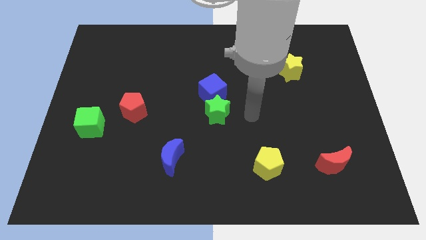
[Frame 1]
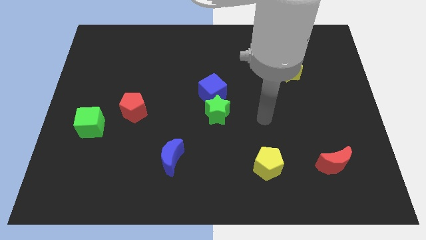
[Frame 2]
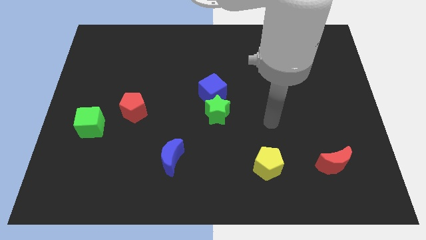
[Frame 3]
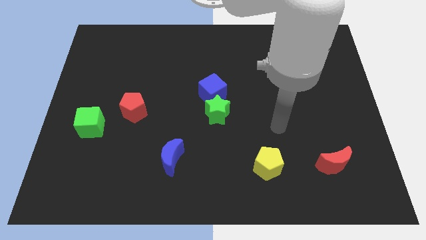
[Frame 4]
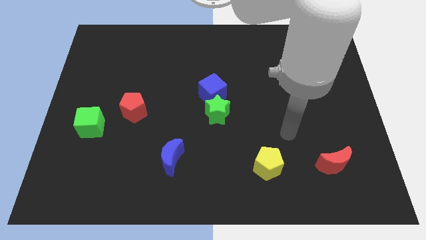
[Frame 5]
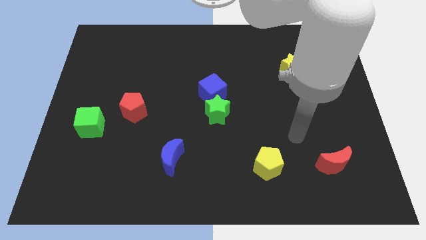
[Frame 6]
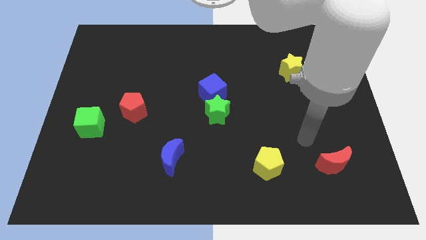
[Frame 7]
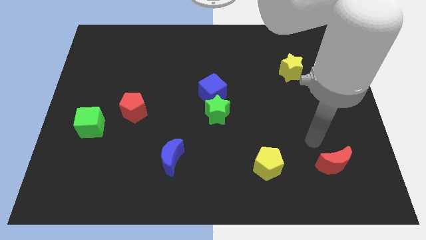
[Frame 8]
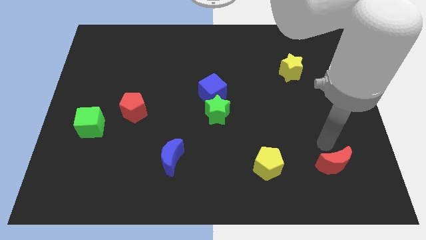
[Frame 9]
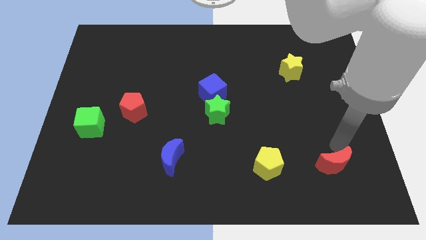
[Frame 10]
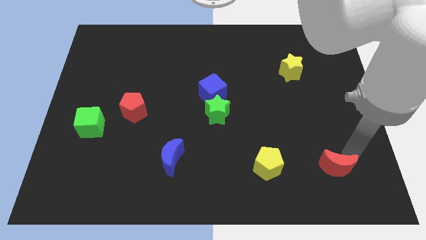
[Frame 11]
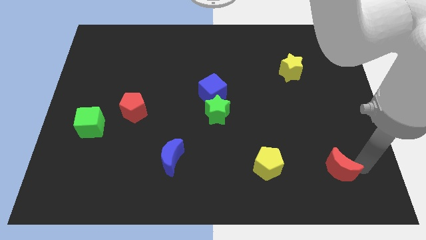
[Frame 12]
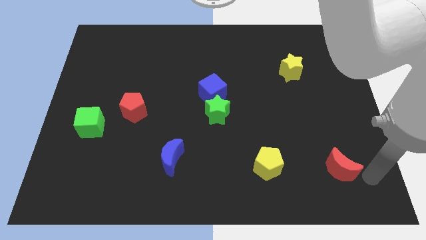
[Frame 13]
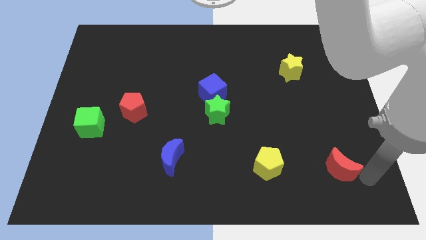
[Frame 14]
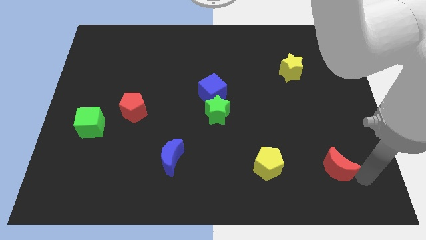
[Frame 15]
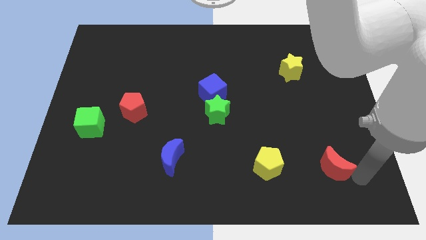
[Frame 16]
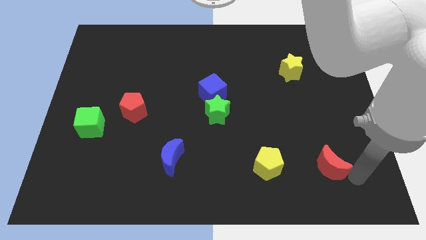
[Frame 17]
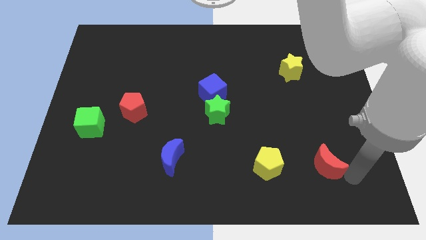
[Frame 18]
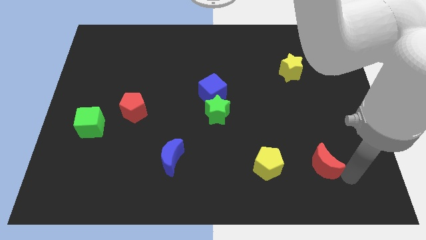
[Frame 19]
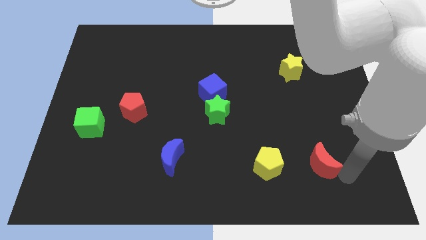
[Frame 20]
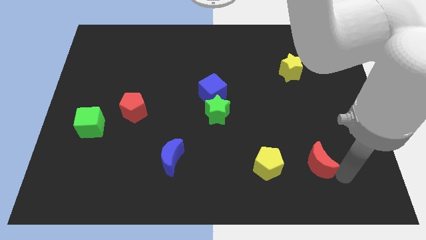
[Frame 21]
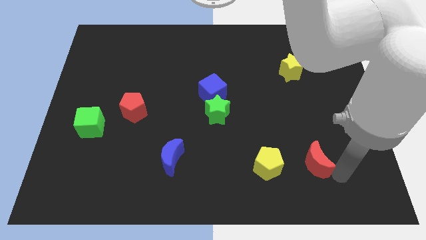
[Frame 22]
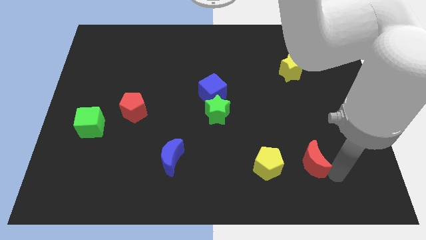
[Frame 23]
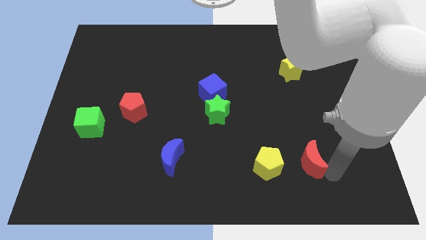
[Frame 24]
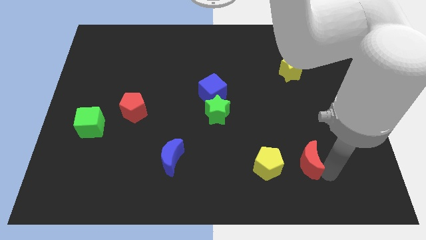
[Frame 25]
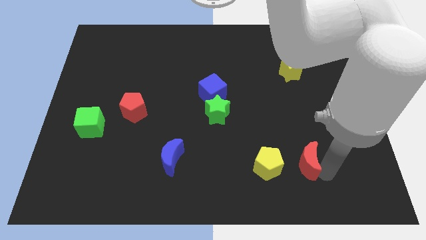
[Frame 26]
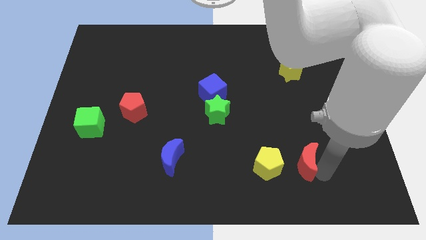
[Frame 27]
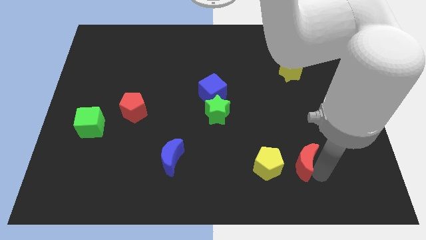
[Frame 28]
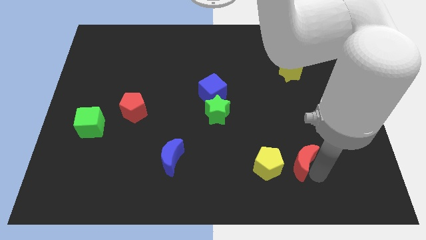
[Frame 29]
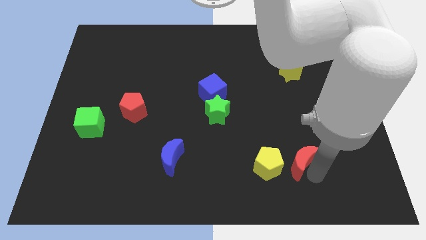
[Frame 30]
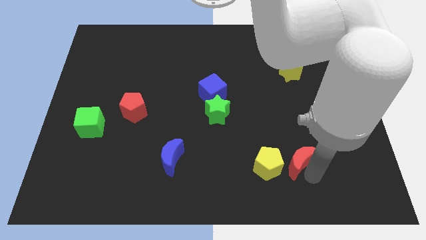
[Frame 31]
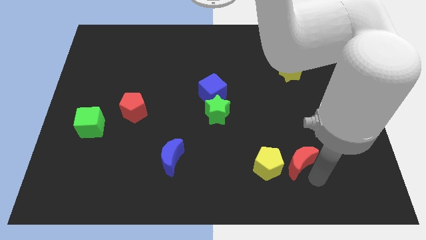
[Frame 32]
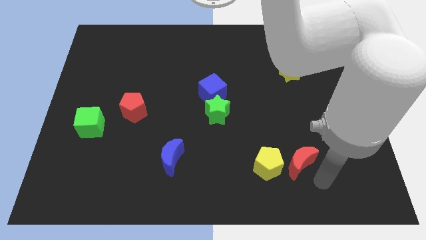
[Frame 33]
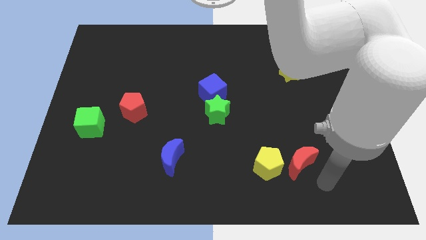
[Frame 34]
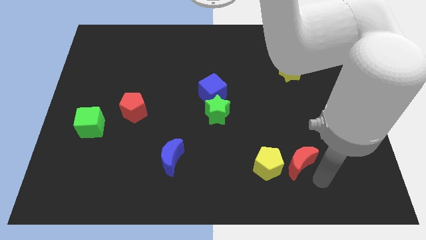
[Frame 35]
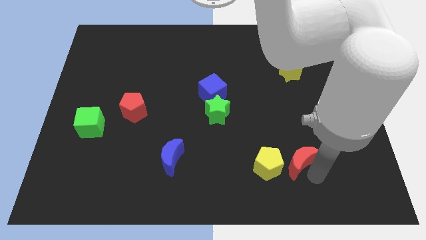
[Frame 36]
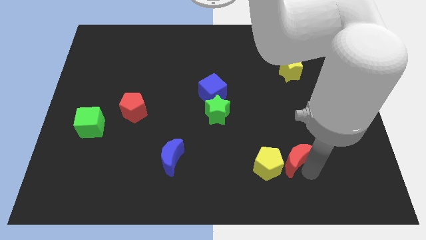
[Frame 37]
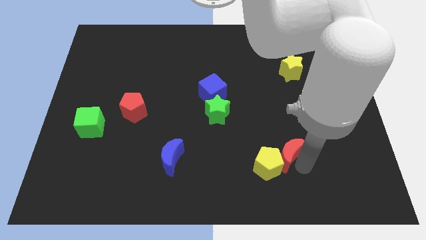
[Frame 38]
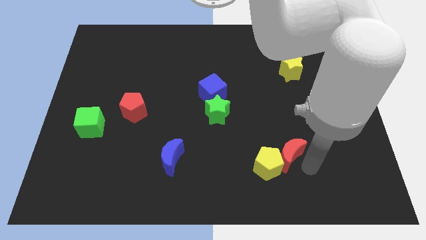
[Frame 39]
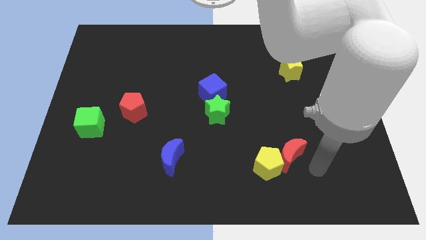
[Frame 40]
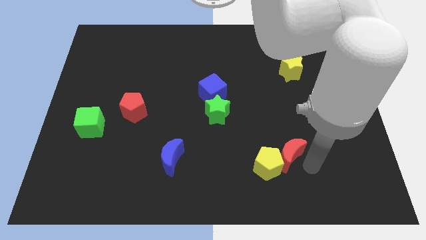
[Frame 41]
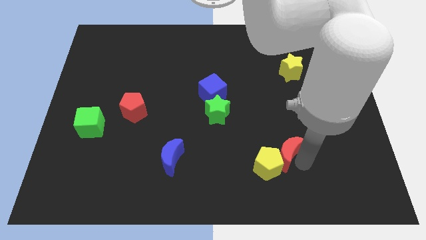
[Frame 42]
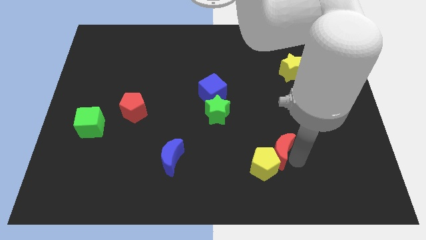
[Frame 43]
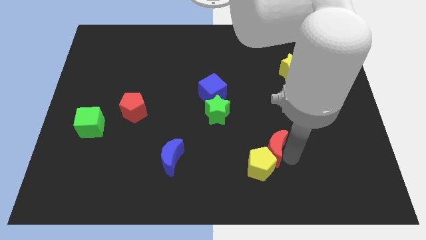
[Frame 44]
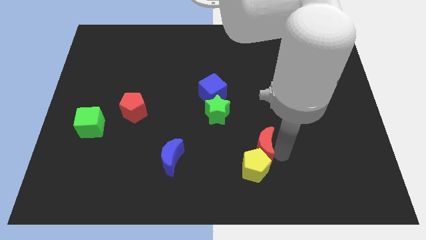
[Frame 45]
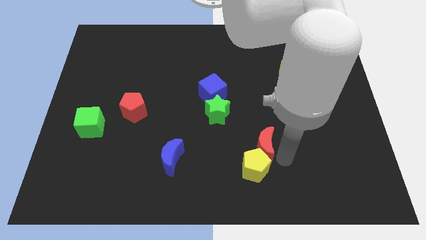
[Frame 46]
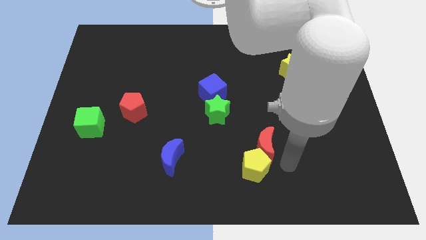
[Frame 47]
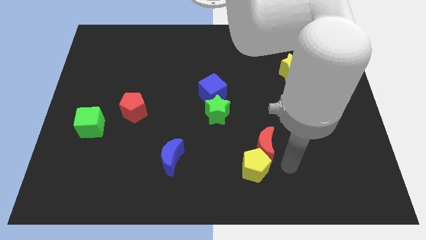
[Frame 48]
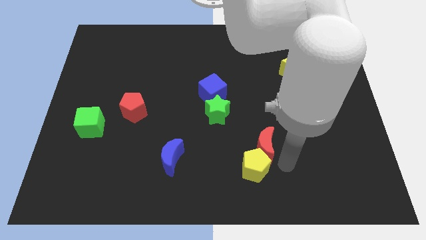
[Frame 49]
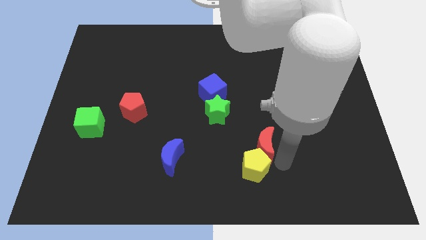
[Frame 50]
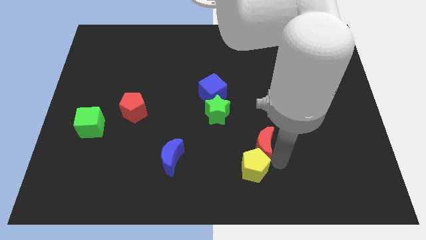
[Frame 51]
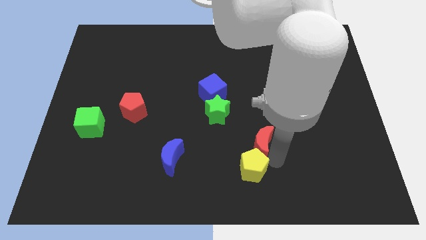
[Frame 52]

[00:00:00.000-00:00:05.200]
put the red moon to the bottom right of the green star

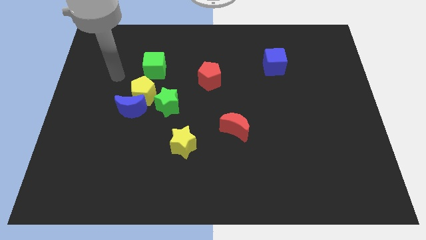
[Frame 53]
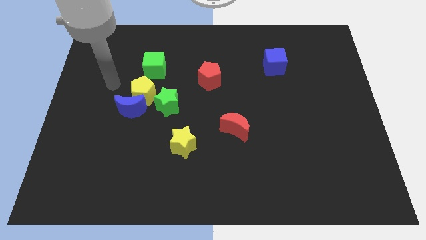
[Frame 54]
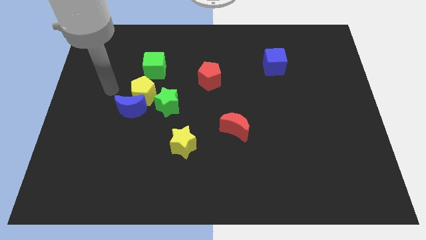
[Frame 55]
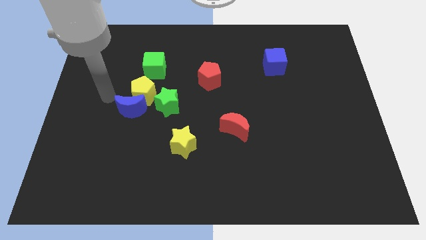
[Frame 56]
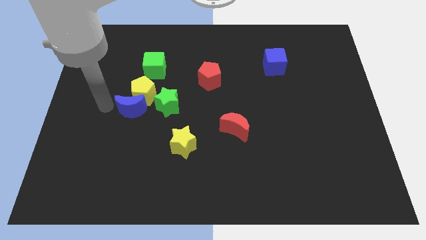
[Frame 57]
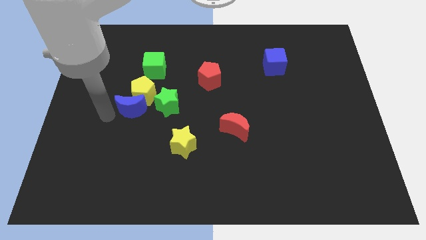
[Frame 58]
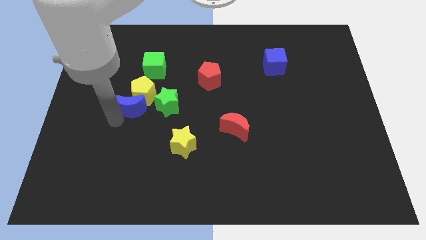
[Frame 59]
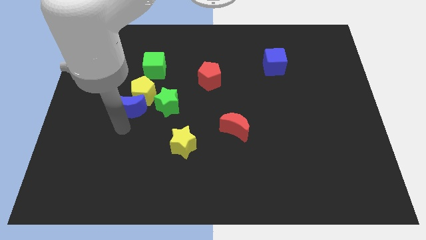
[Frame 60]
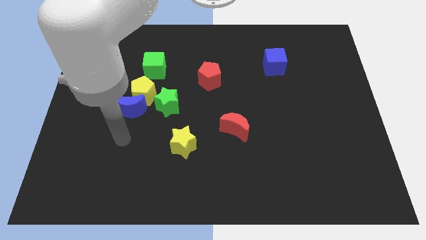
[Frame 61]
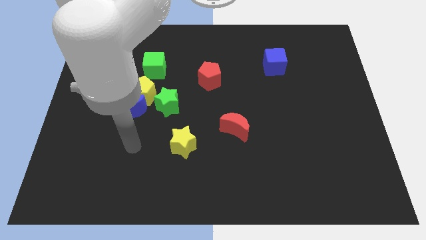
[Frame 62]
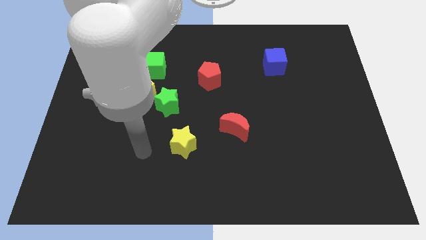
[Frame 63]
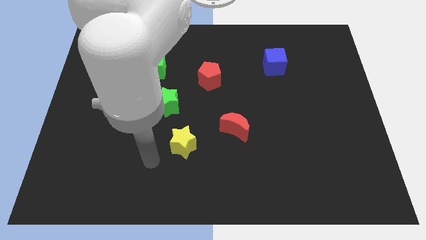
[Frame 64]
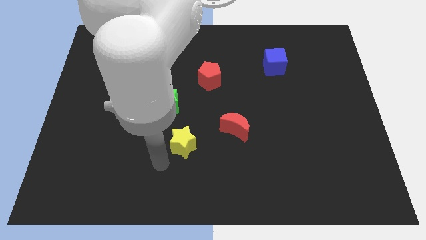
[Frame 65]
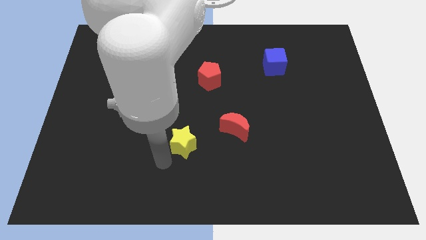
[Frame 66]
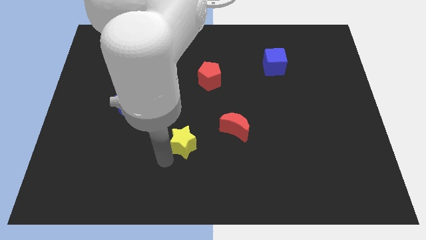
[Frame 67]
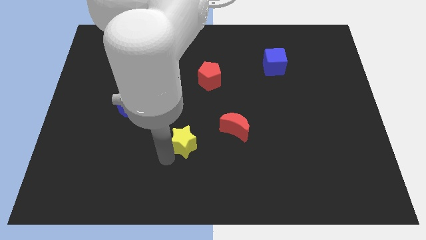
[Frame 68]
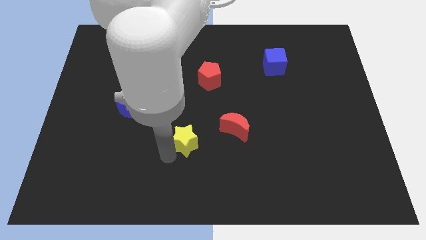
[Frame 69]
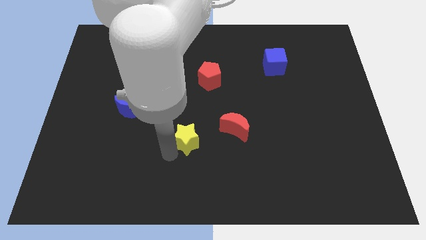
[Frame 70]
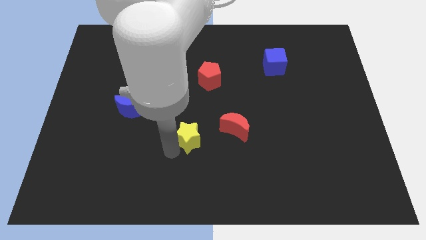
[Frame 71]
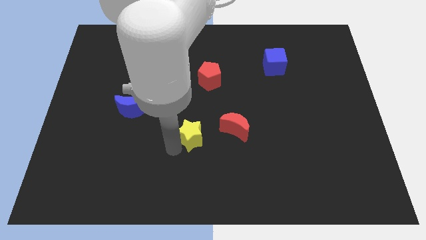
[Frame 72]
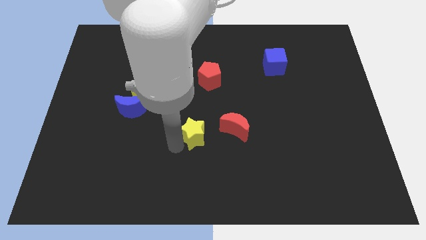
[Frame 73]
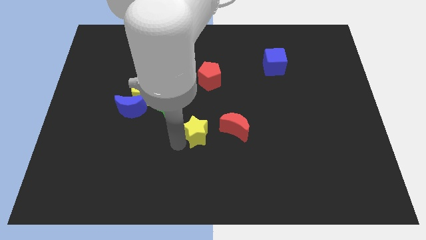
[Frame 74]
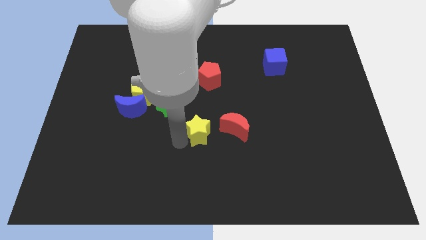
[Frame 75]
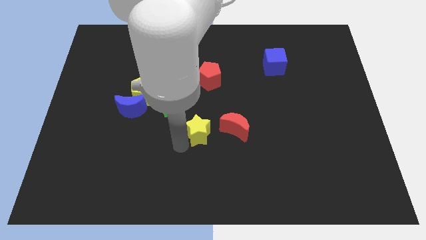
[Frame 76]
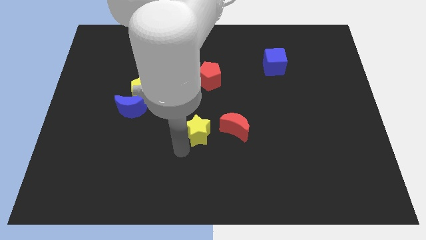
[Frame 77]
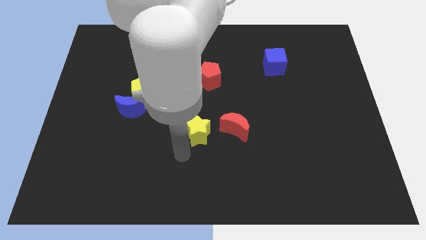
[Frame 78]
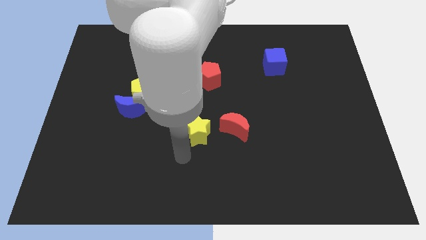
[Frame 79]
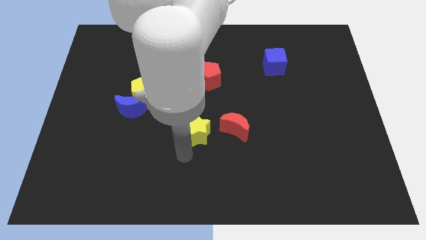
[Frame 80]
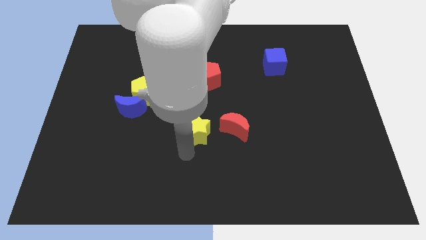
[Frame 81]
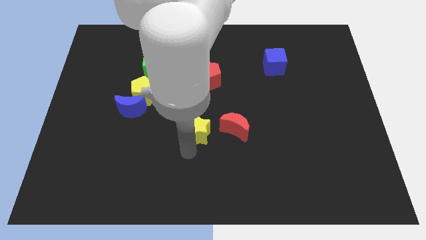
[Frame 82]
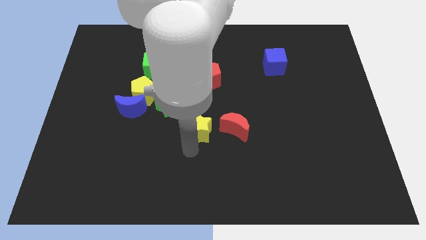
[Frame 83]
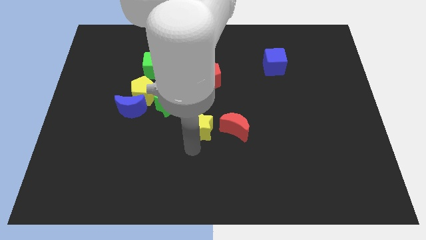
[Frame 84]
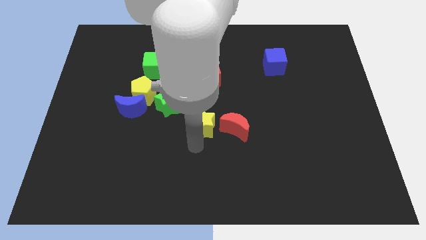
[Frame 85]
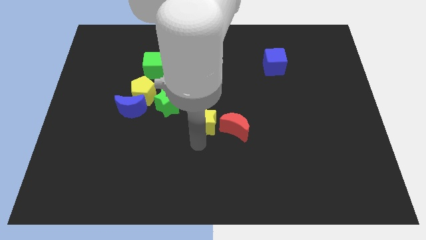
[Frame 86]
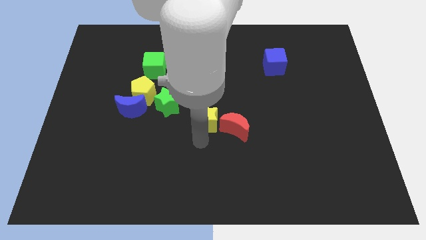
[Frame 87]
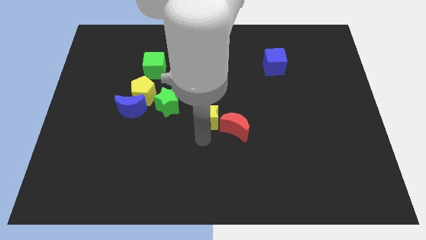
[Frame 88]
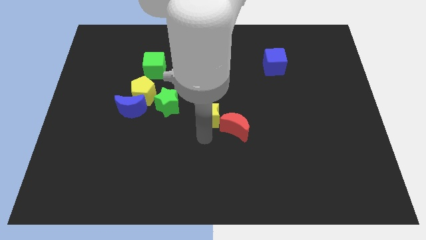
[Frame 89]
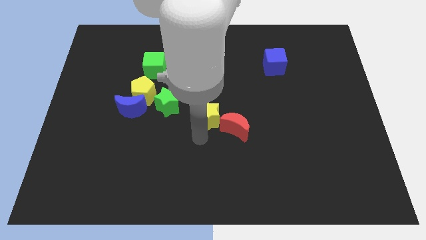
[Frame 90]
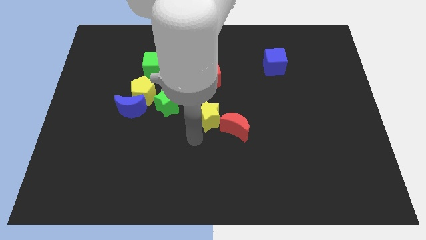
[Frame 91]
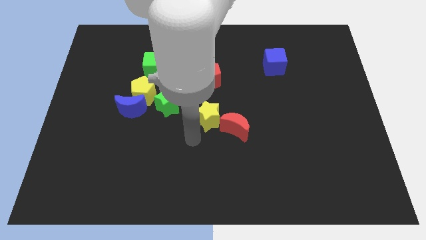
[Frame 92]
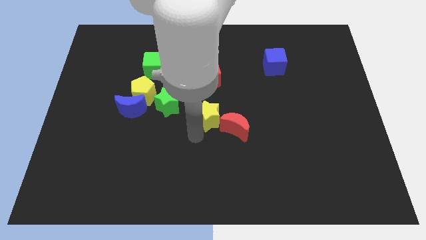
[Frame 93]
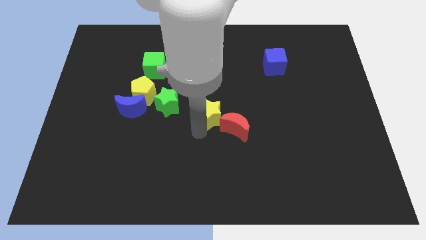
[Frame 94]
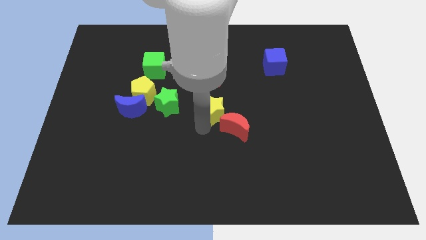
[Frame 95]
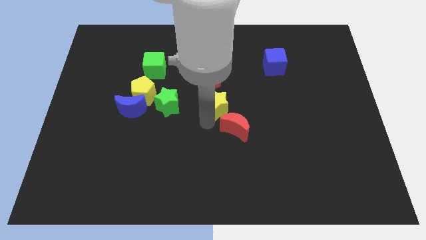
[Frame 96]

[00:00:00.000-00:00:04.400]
move the yellow star diagonally down and to the right of the red pentagon
